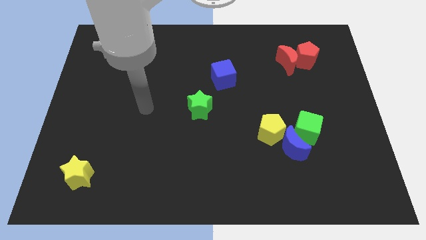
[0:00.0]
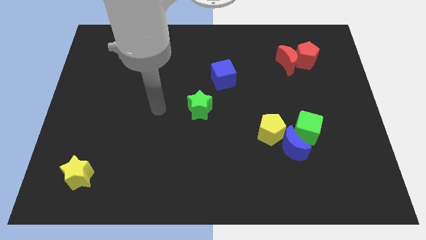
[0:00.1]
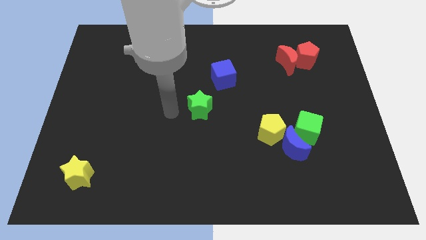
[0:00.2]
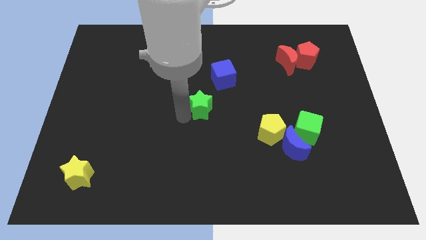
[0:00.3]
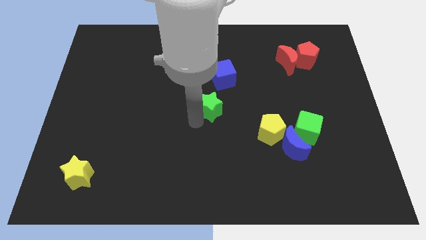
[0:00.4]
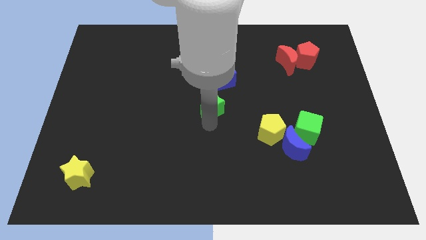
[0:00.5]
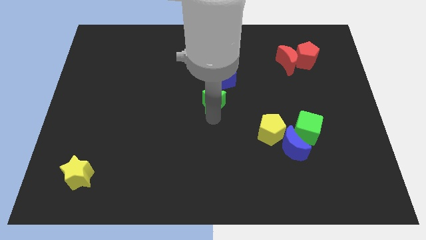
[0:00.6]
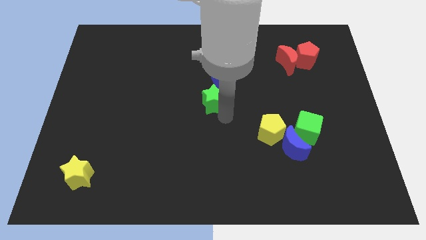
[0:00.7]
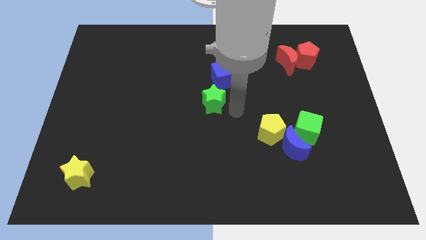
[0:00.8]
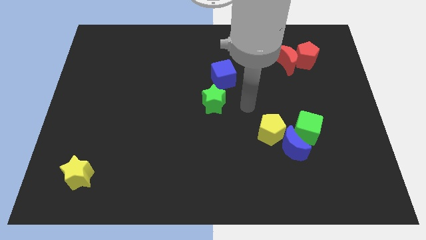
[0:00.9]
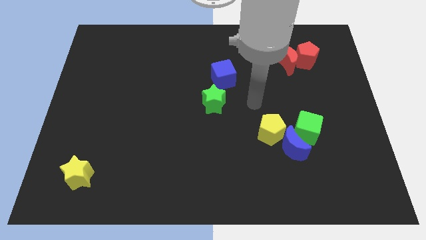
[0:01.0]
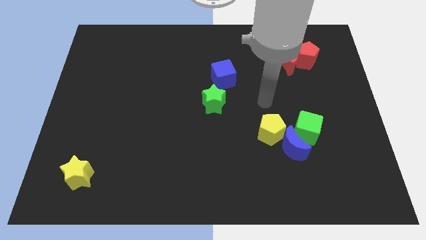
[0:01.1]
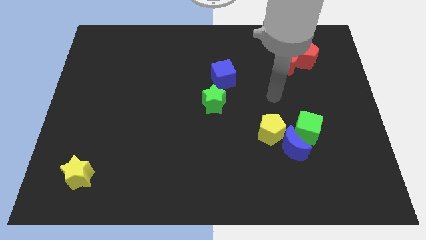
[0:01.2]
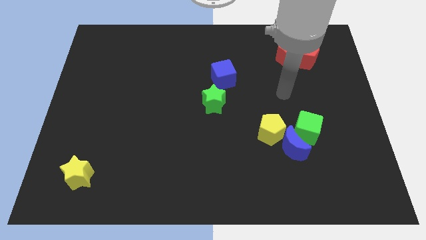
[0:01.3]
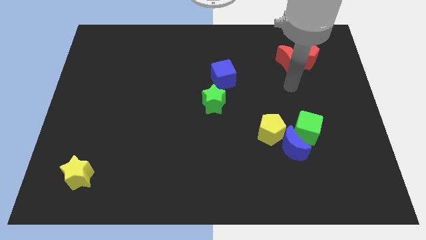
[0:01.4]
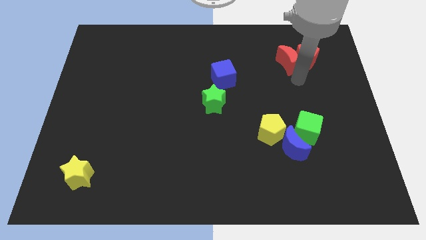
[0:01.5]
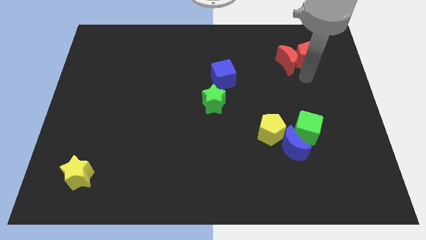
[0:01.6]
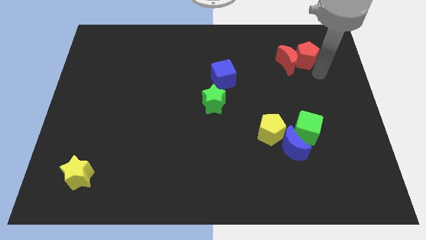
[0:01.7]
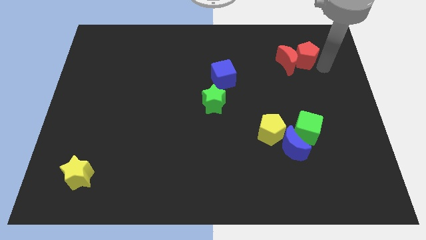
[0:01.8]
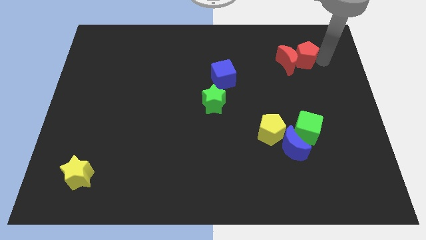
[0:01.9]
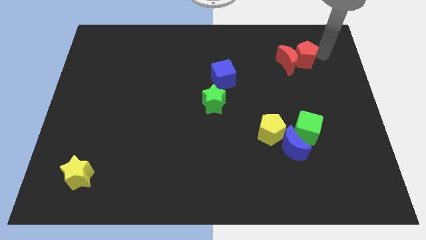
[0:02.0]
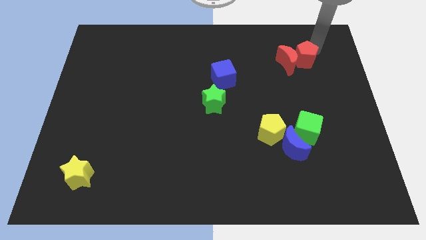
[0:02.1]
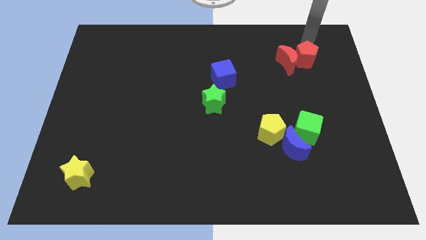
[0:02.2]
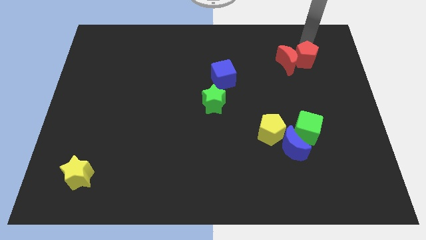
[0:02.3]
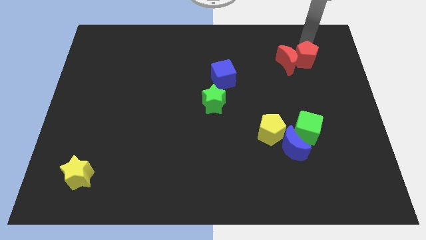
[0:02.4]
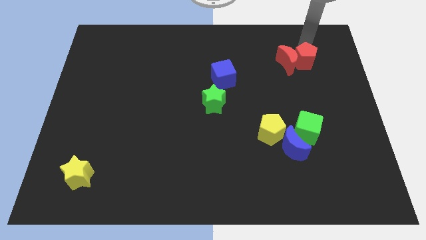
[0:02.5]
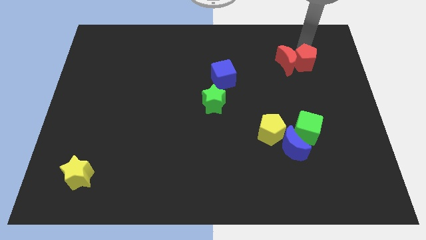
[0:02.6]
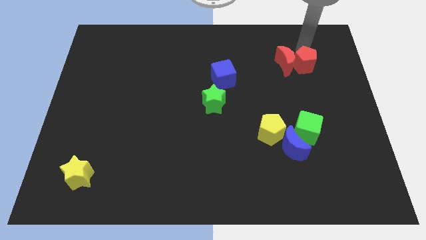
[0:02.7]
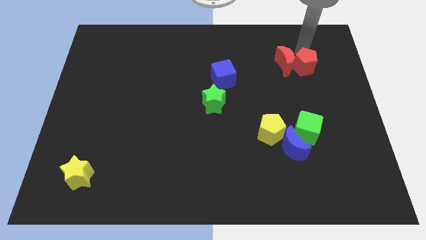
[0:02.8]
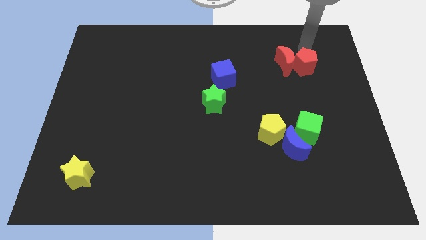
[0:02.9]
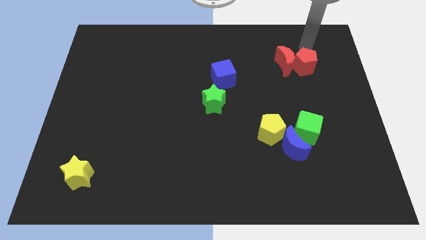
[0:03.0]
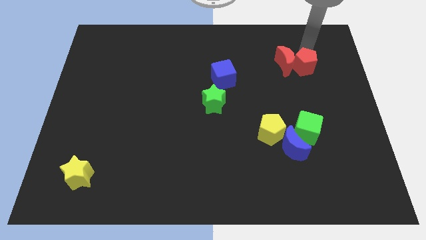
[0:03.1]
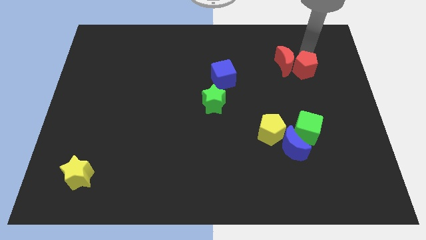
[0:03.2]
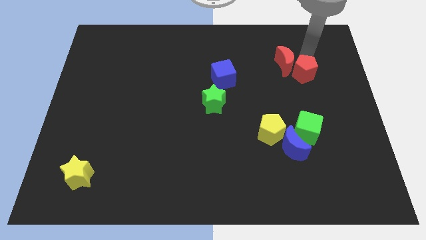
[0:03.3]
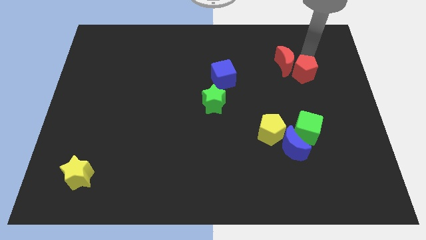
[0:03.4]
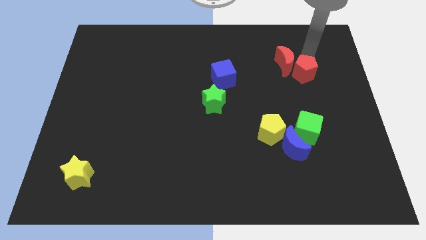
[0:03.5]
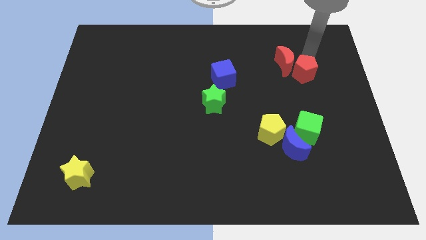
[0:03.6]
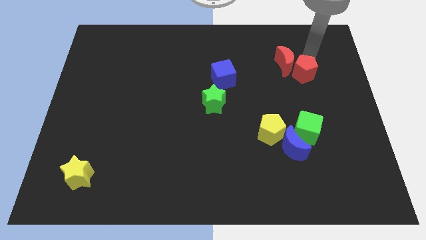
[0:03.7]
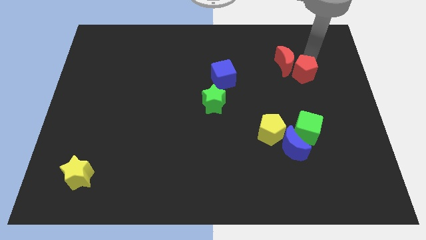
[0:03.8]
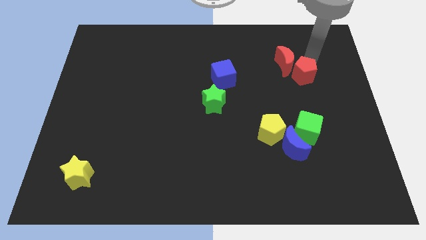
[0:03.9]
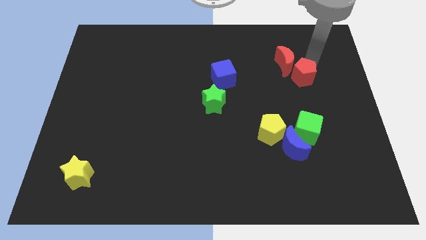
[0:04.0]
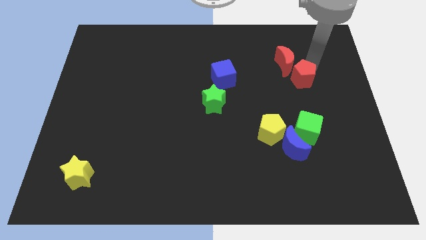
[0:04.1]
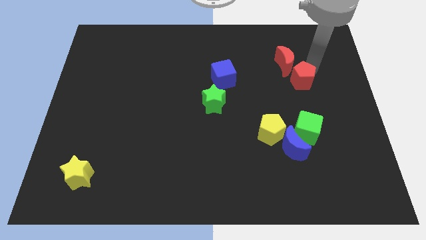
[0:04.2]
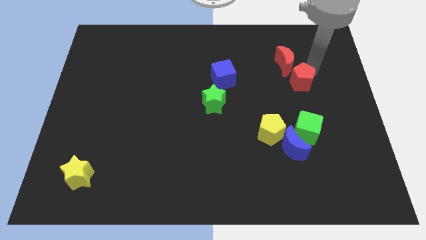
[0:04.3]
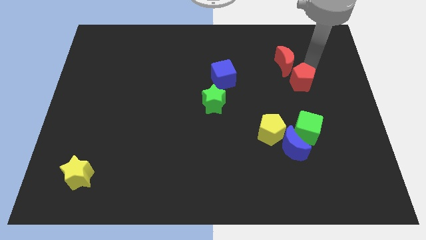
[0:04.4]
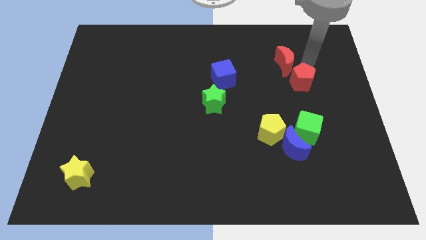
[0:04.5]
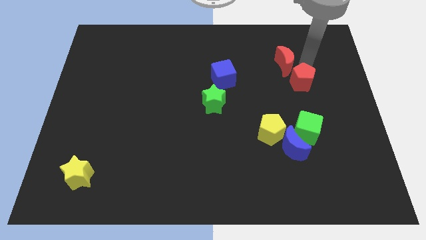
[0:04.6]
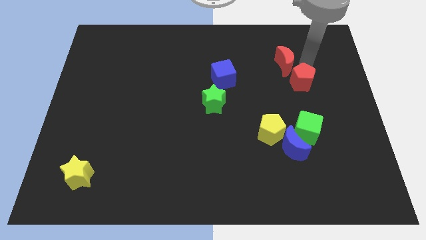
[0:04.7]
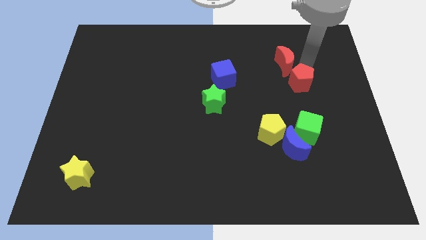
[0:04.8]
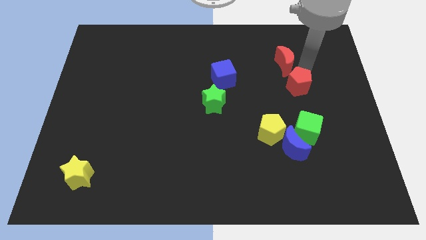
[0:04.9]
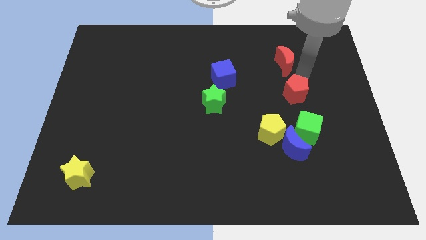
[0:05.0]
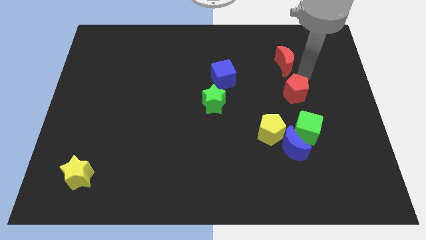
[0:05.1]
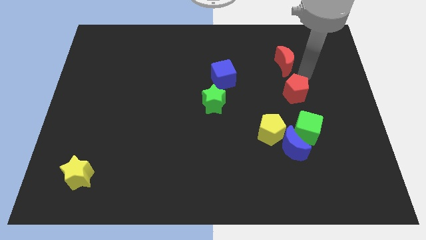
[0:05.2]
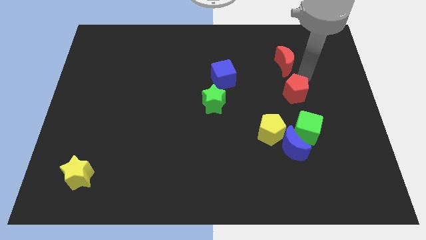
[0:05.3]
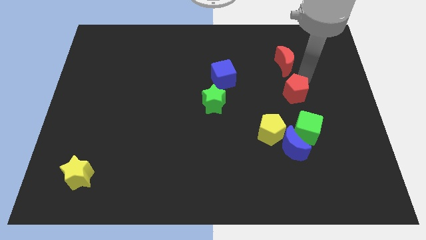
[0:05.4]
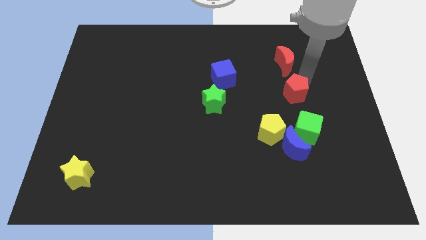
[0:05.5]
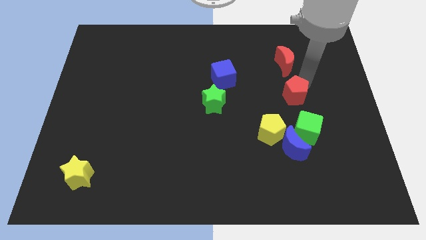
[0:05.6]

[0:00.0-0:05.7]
put the red pentagon to the top side of the blue moon

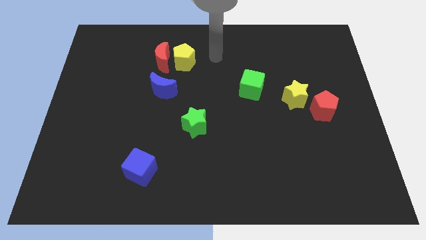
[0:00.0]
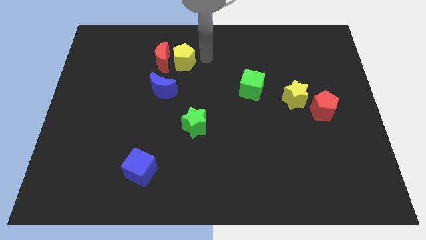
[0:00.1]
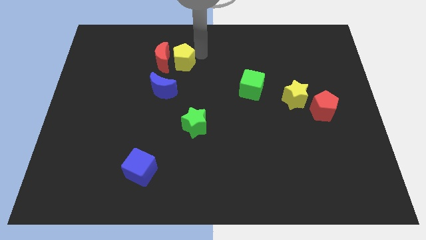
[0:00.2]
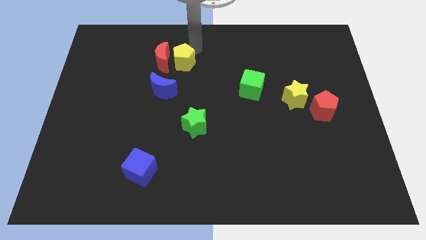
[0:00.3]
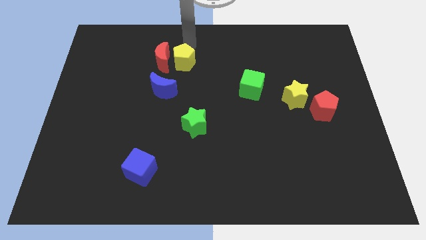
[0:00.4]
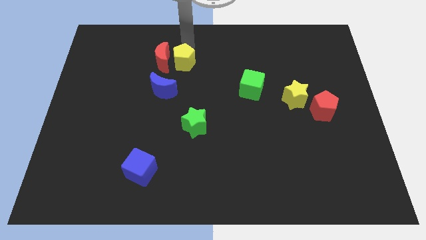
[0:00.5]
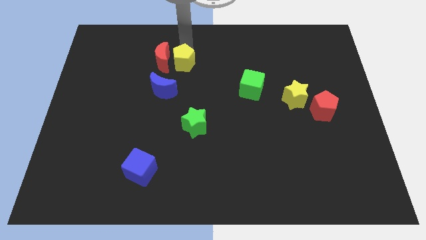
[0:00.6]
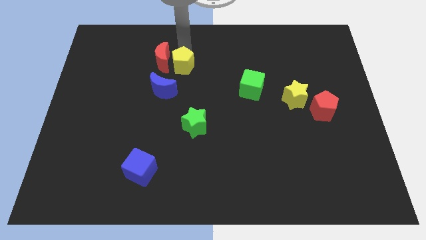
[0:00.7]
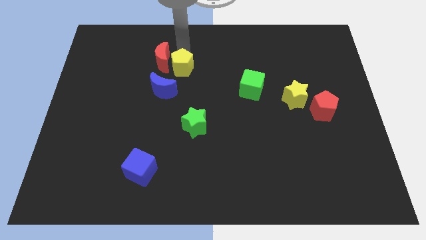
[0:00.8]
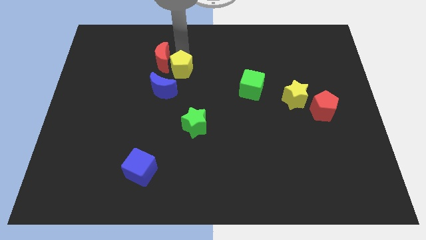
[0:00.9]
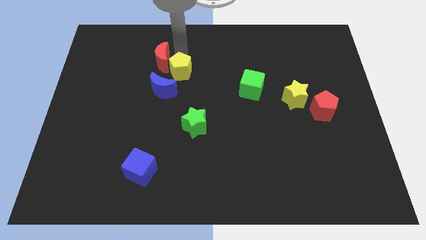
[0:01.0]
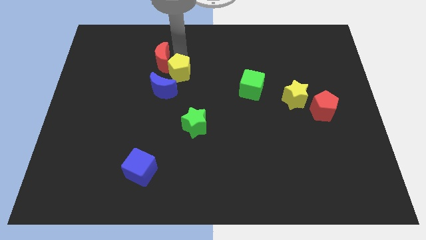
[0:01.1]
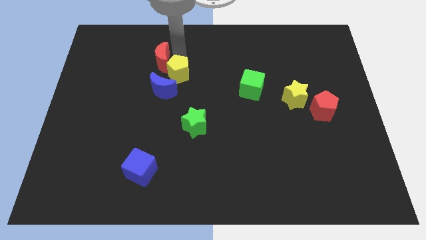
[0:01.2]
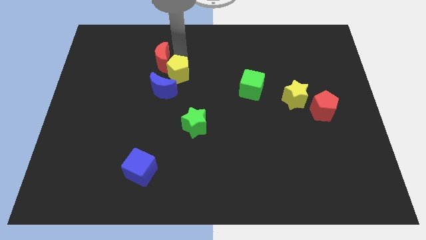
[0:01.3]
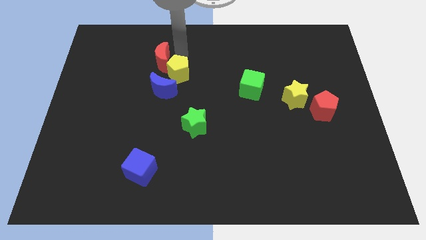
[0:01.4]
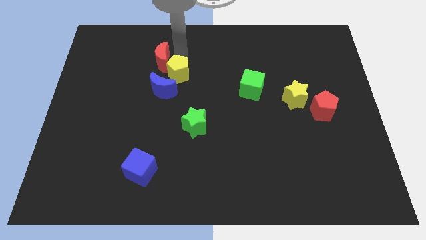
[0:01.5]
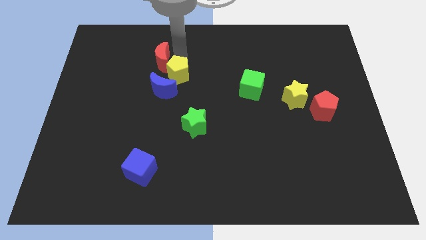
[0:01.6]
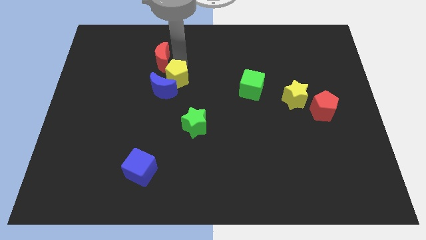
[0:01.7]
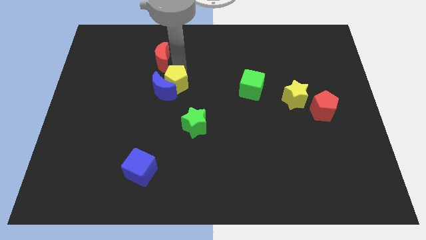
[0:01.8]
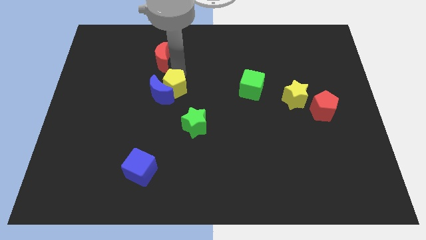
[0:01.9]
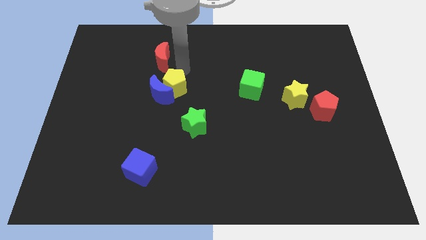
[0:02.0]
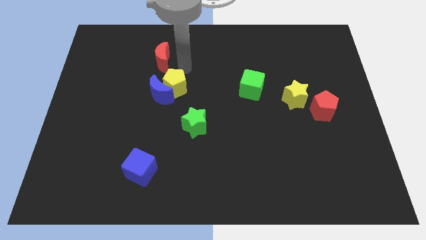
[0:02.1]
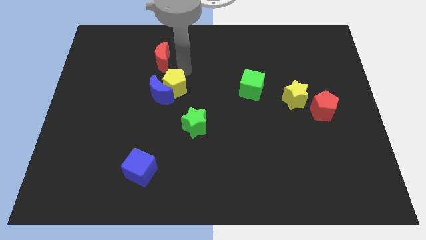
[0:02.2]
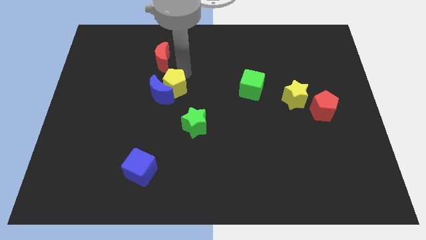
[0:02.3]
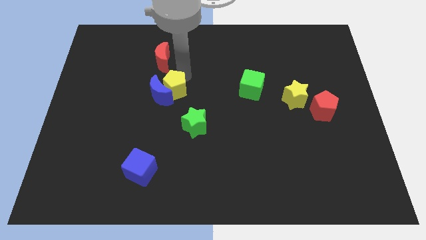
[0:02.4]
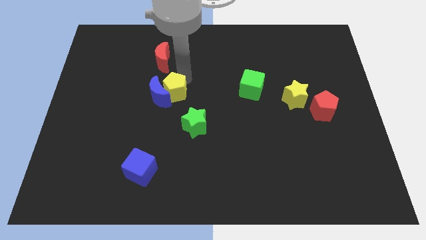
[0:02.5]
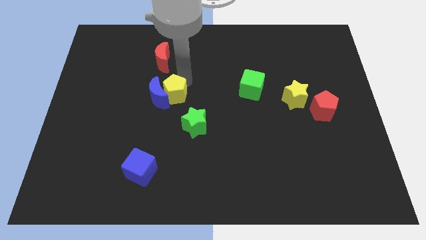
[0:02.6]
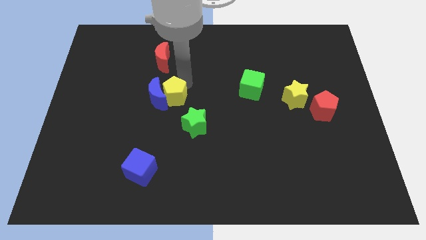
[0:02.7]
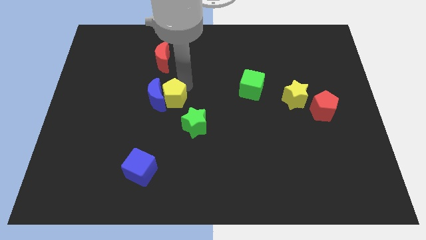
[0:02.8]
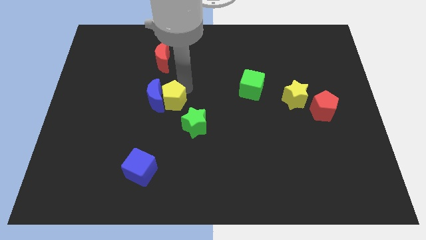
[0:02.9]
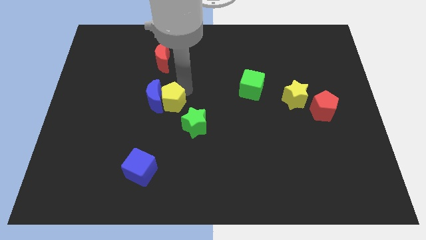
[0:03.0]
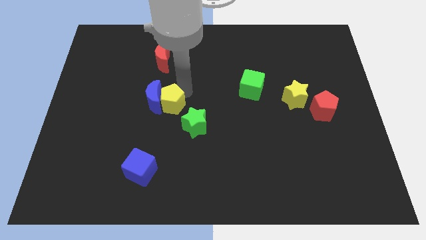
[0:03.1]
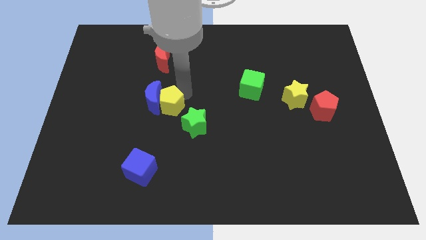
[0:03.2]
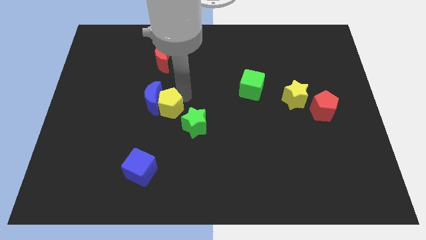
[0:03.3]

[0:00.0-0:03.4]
slide the yellow pentagon left of the green star
